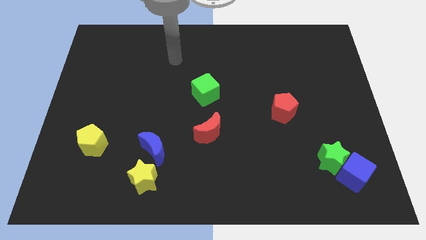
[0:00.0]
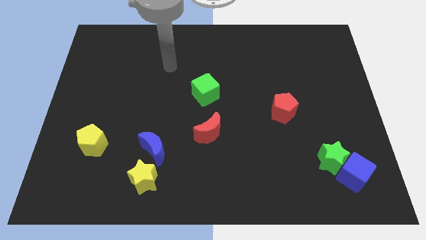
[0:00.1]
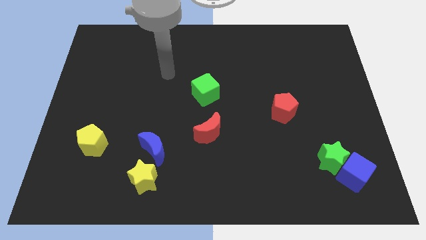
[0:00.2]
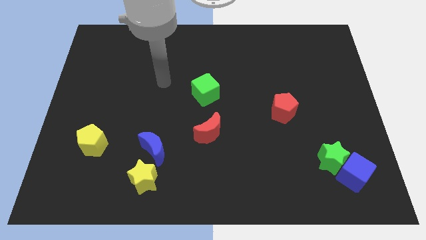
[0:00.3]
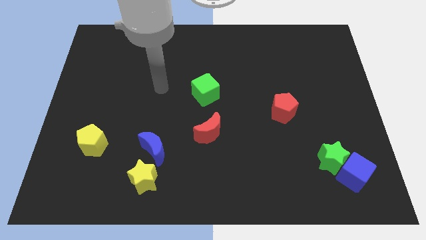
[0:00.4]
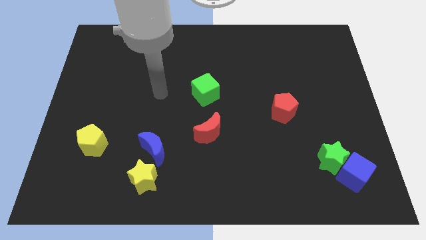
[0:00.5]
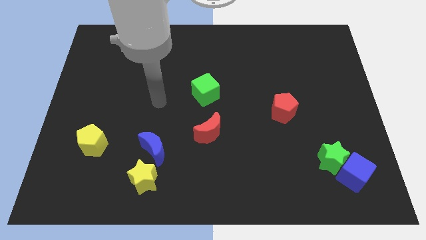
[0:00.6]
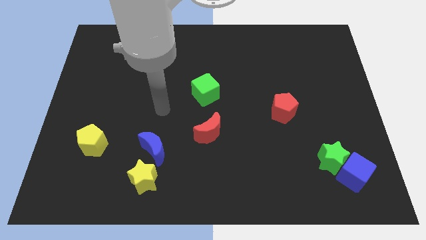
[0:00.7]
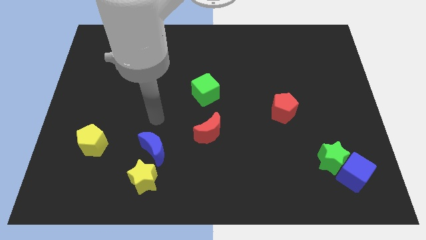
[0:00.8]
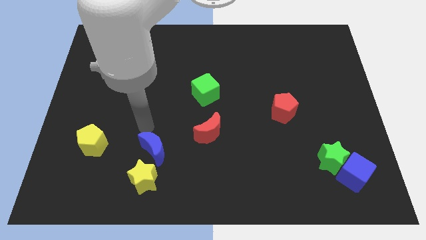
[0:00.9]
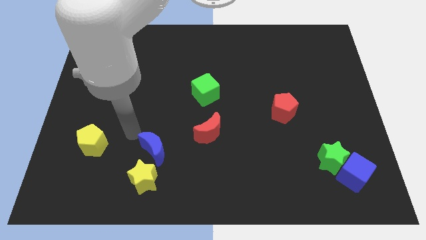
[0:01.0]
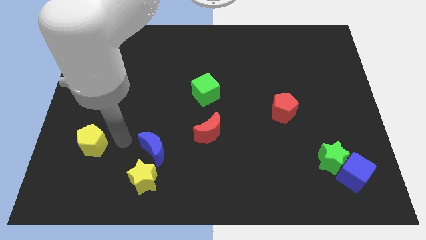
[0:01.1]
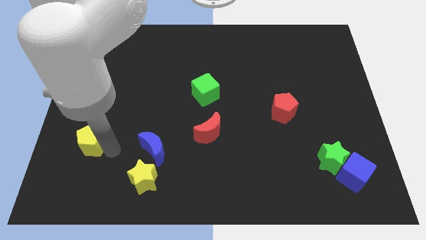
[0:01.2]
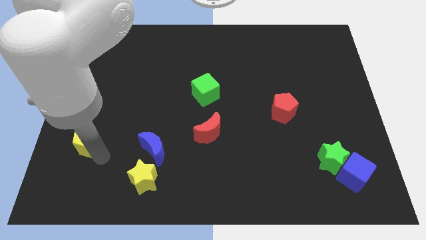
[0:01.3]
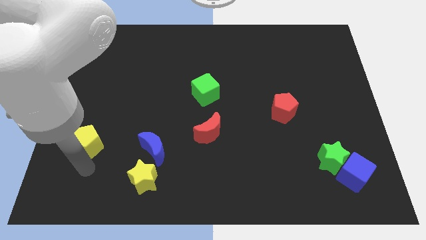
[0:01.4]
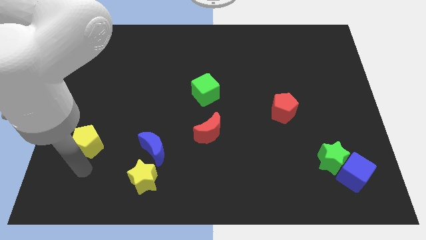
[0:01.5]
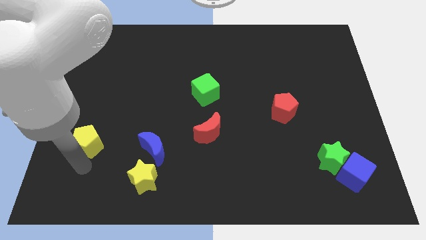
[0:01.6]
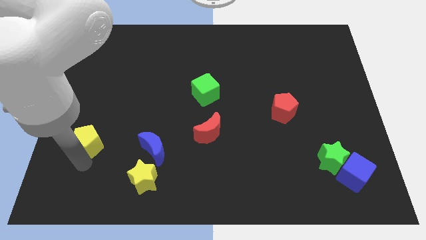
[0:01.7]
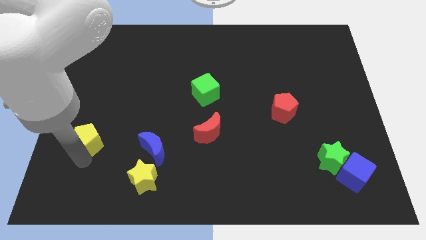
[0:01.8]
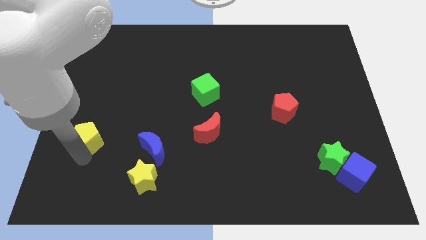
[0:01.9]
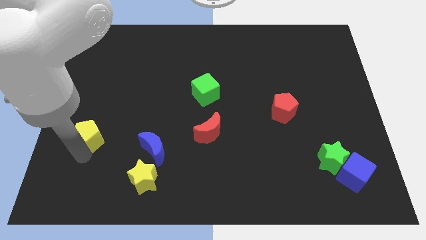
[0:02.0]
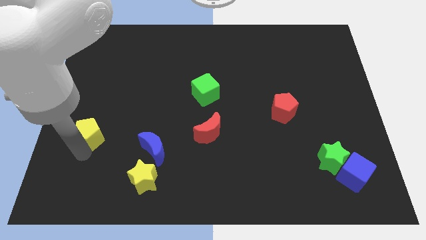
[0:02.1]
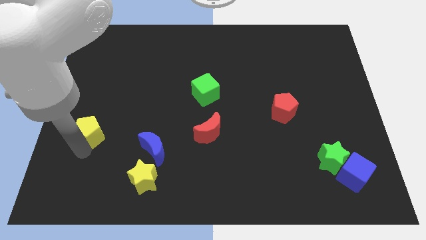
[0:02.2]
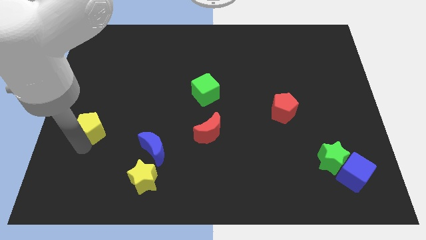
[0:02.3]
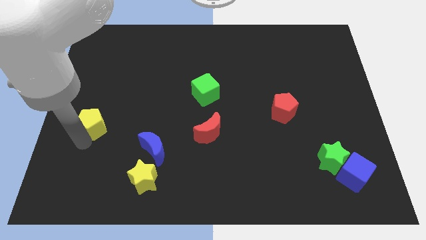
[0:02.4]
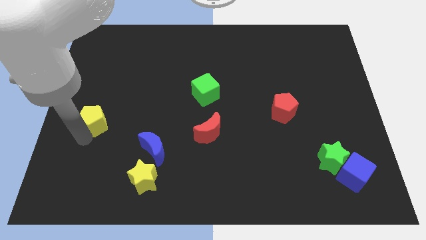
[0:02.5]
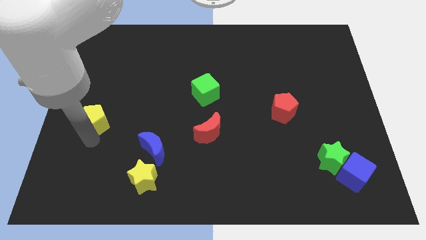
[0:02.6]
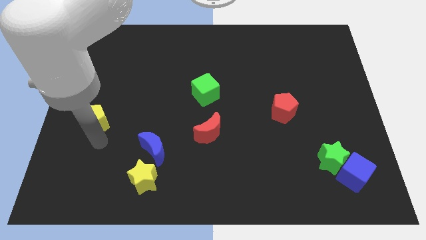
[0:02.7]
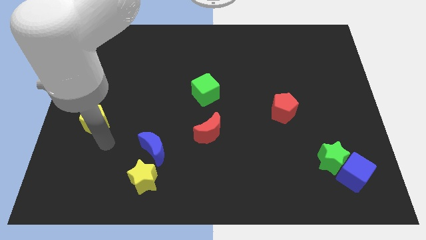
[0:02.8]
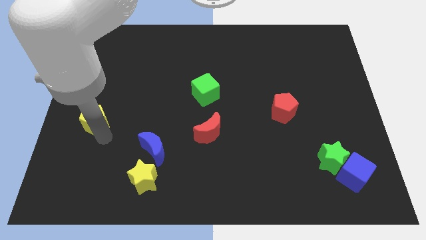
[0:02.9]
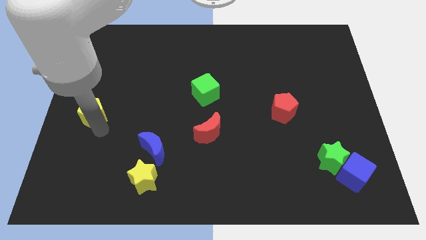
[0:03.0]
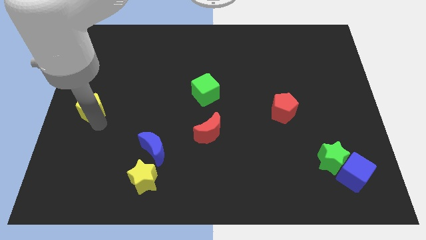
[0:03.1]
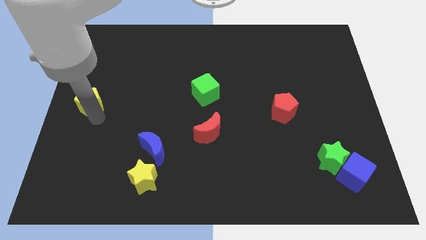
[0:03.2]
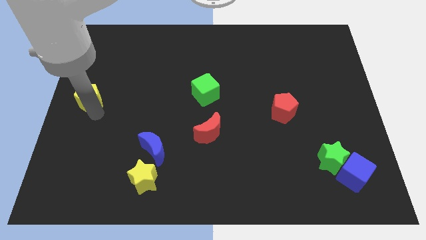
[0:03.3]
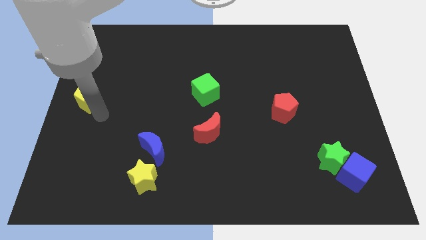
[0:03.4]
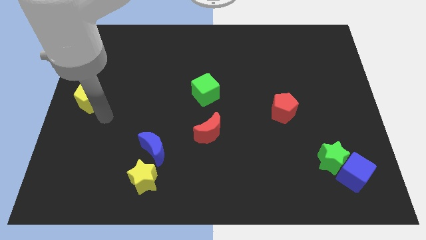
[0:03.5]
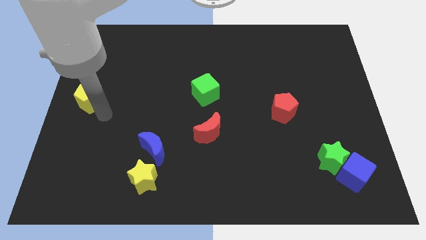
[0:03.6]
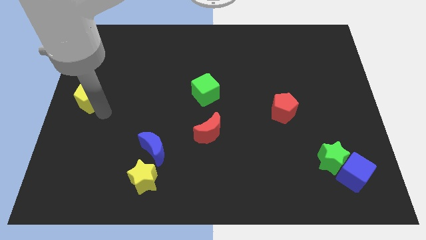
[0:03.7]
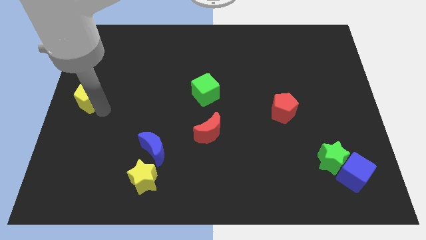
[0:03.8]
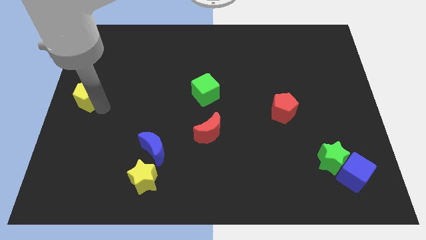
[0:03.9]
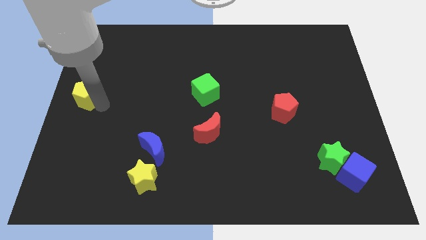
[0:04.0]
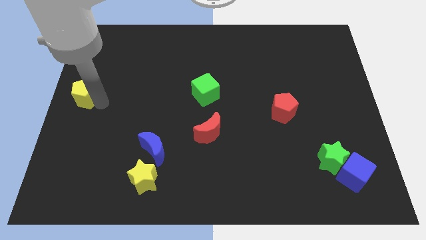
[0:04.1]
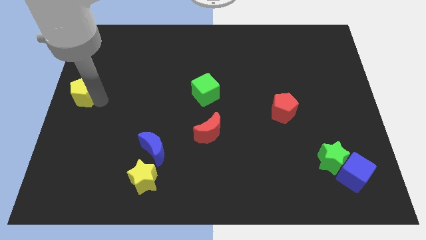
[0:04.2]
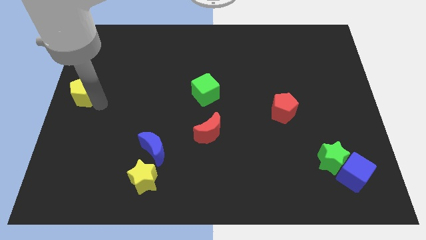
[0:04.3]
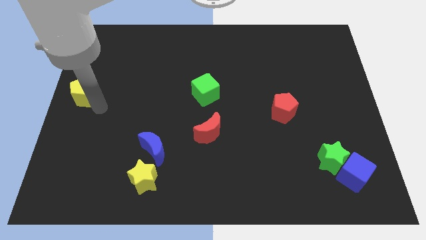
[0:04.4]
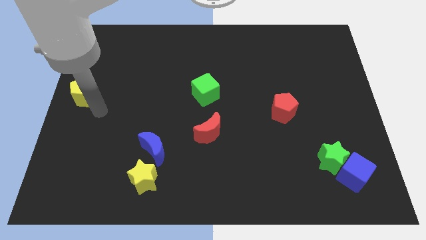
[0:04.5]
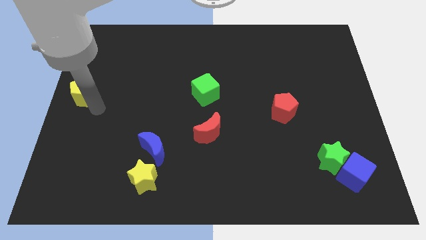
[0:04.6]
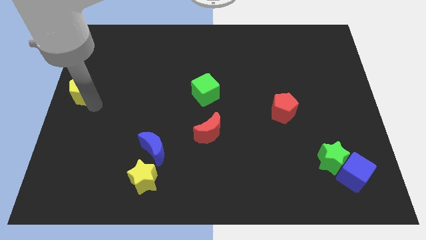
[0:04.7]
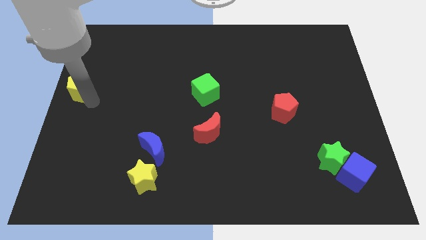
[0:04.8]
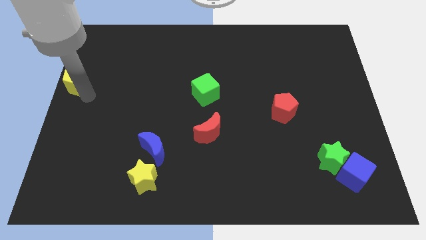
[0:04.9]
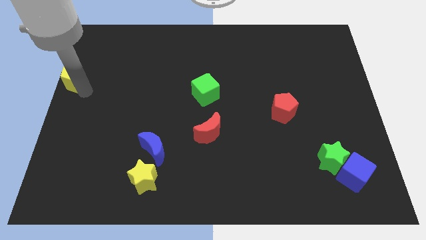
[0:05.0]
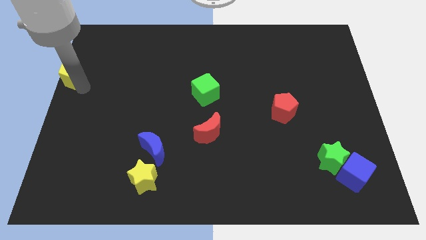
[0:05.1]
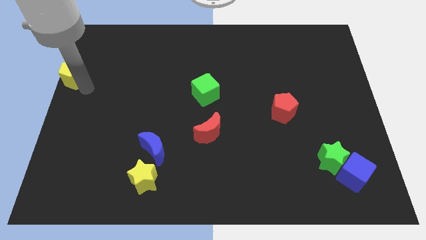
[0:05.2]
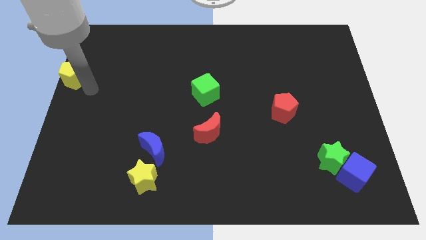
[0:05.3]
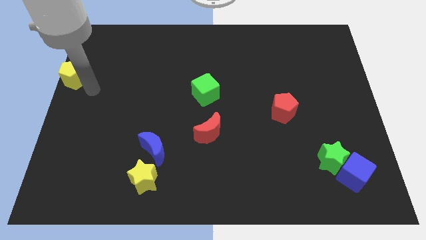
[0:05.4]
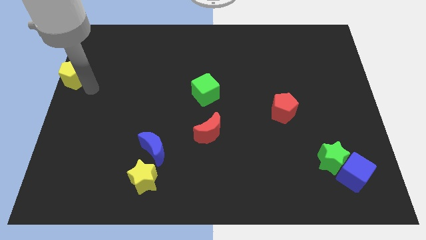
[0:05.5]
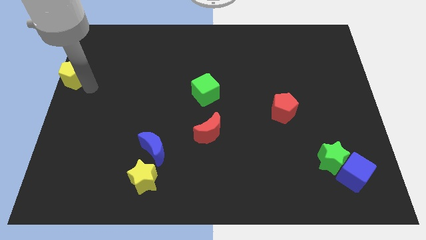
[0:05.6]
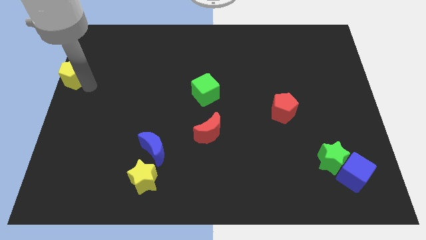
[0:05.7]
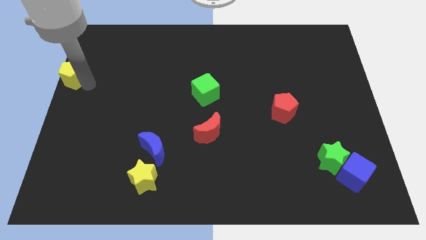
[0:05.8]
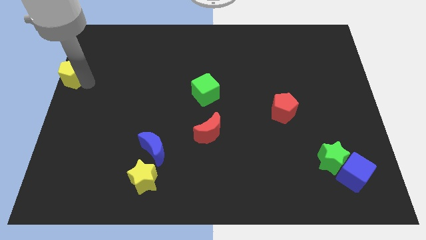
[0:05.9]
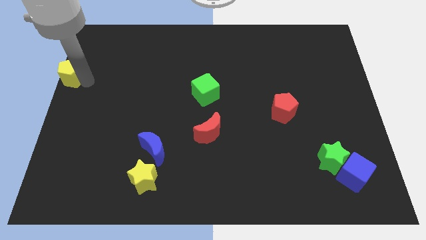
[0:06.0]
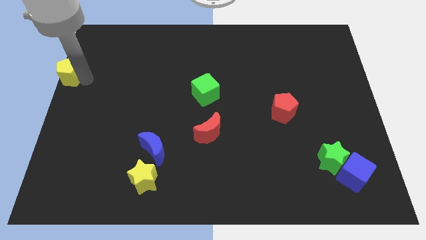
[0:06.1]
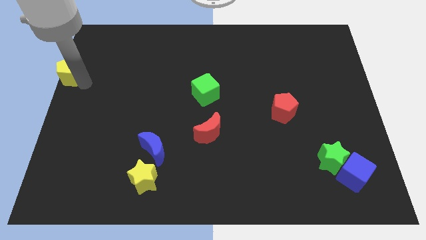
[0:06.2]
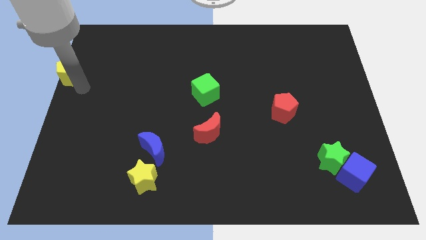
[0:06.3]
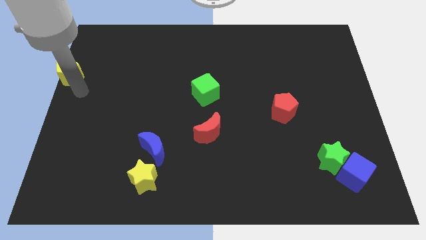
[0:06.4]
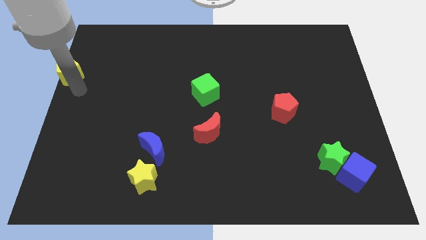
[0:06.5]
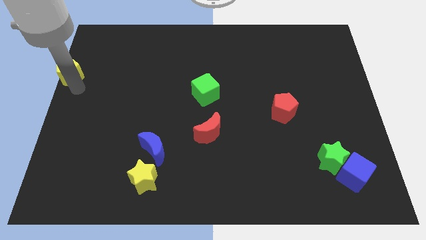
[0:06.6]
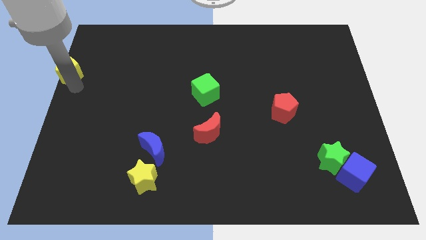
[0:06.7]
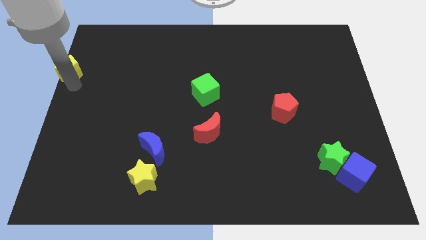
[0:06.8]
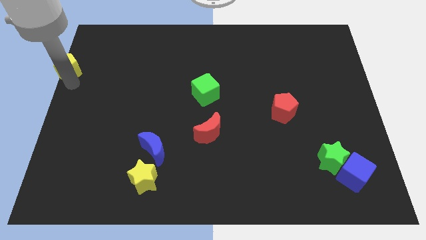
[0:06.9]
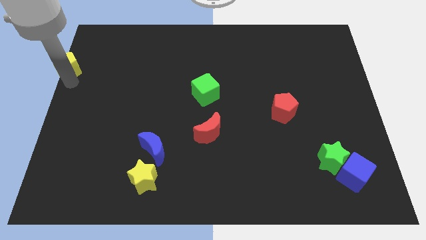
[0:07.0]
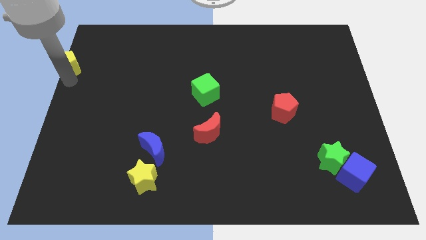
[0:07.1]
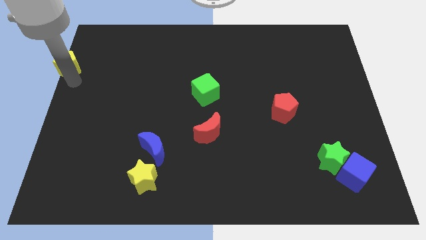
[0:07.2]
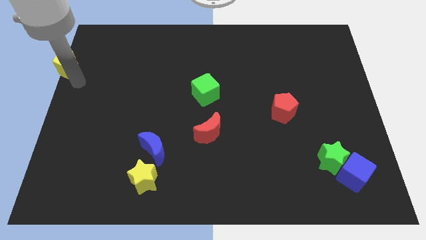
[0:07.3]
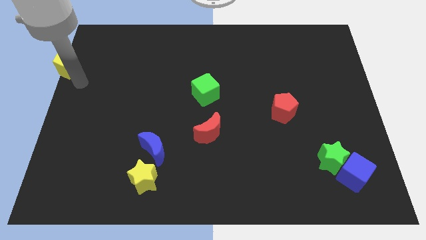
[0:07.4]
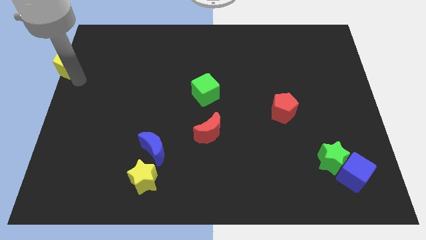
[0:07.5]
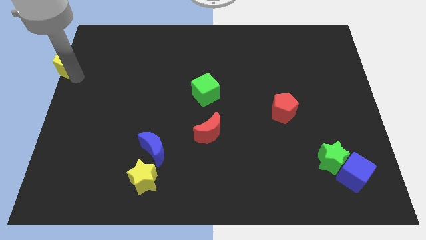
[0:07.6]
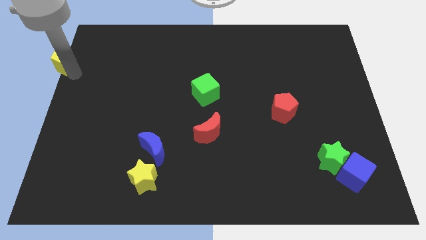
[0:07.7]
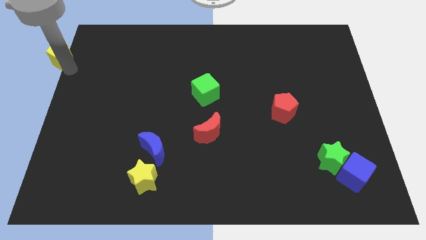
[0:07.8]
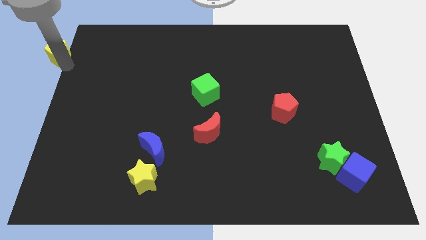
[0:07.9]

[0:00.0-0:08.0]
move the yellow pentagon to the top left of the board

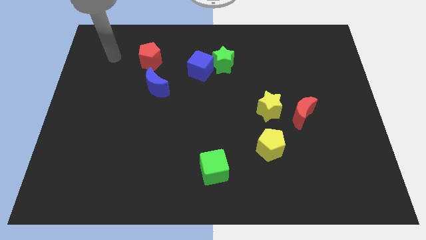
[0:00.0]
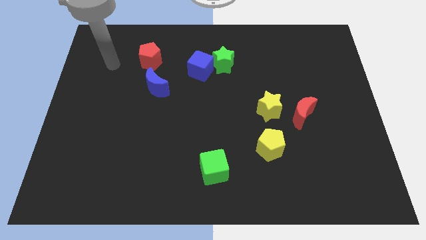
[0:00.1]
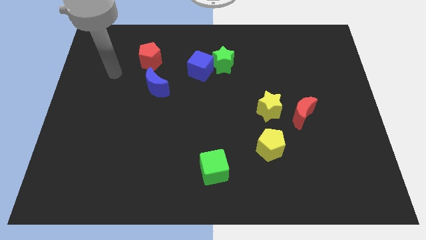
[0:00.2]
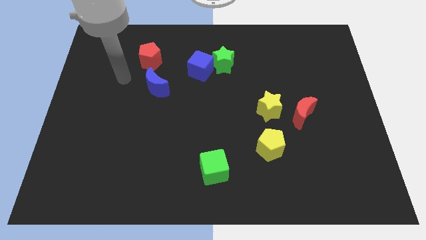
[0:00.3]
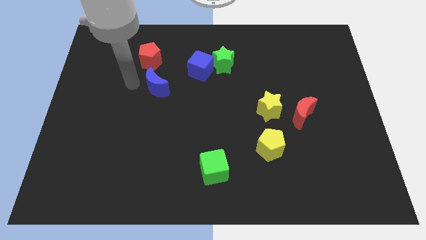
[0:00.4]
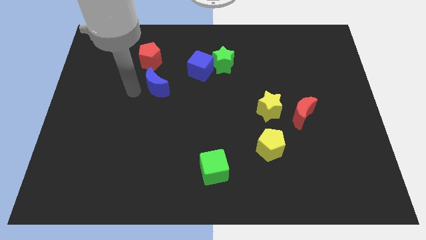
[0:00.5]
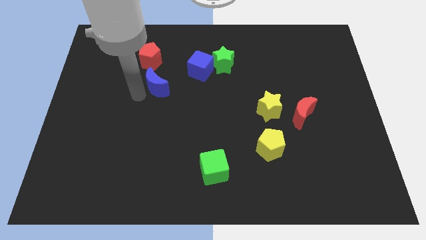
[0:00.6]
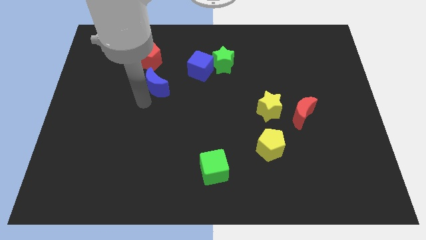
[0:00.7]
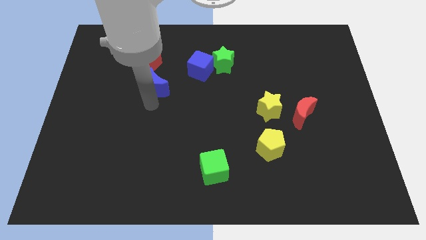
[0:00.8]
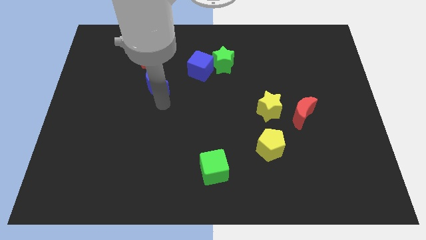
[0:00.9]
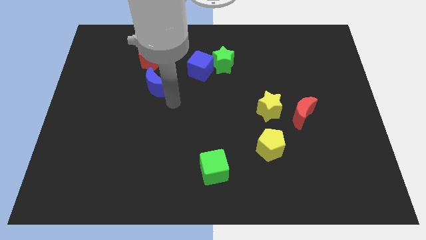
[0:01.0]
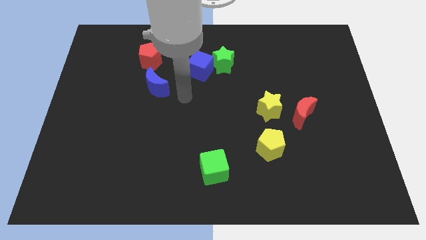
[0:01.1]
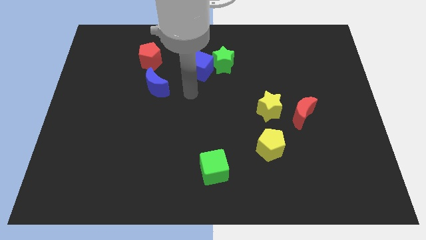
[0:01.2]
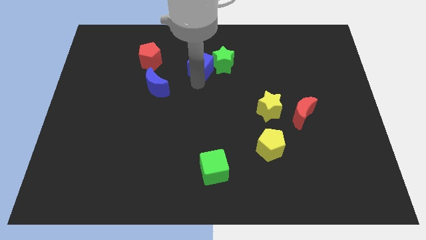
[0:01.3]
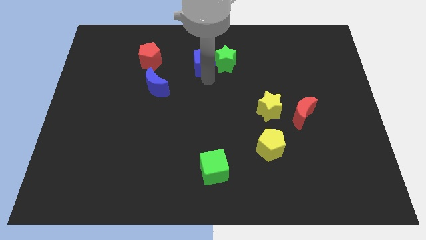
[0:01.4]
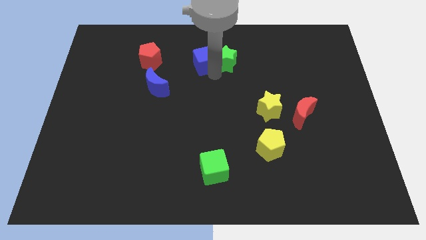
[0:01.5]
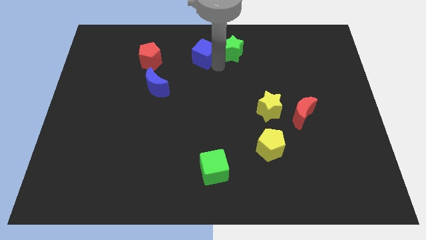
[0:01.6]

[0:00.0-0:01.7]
put the blue cube to the towards your base
